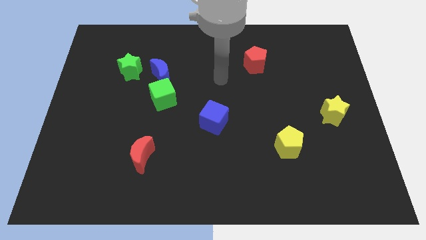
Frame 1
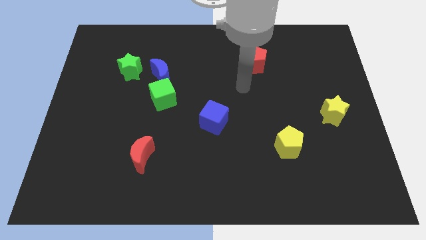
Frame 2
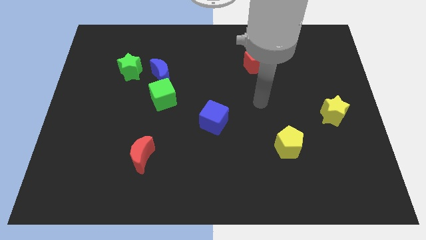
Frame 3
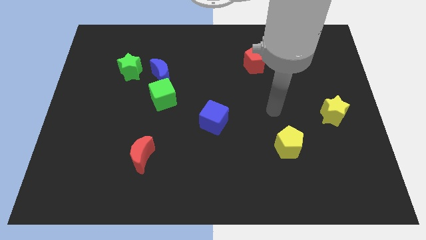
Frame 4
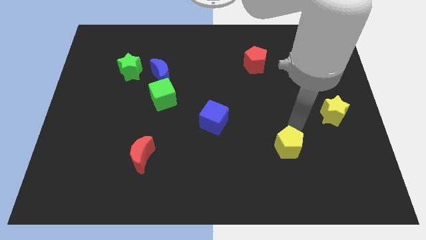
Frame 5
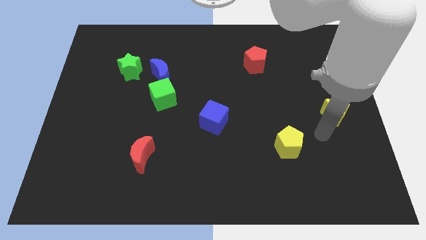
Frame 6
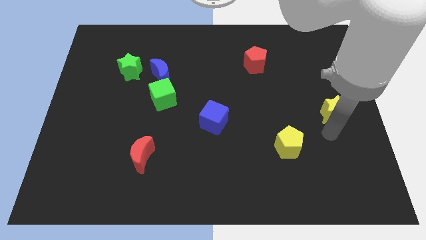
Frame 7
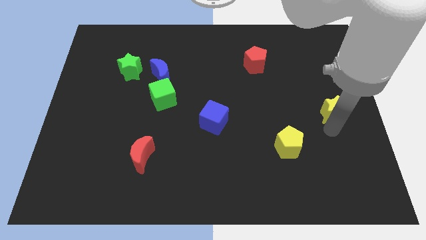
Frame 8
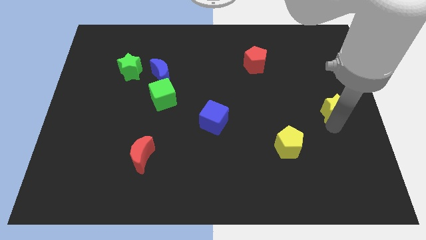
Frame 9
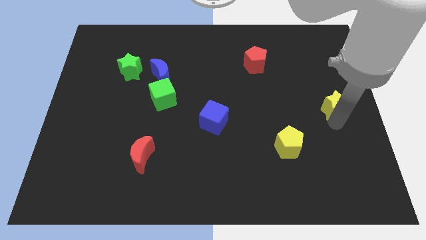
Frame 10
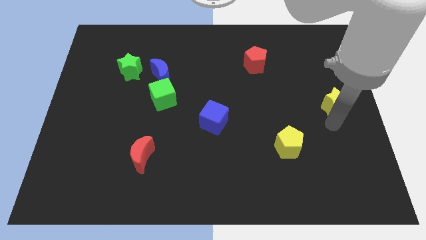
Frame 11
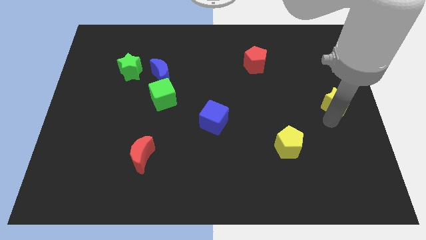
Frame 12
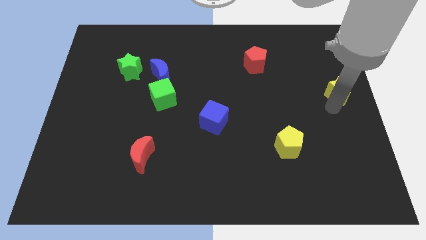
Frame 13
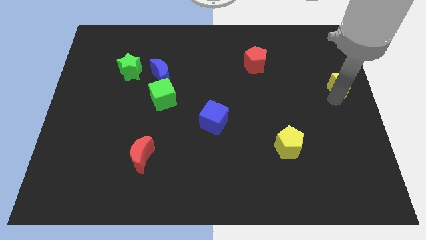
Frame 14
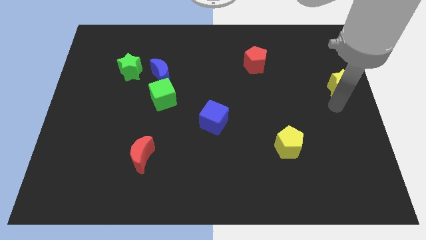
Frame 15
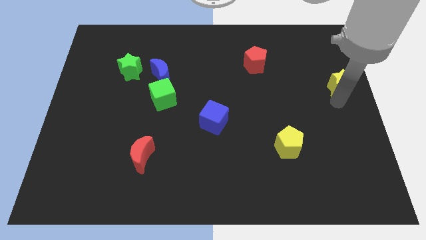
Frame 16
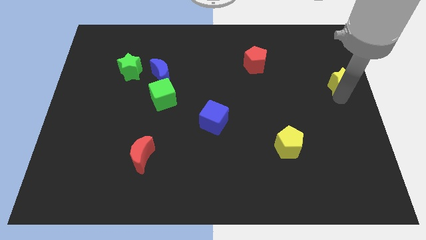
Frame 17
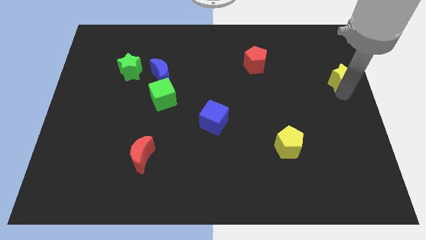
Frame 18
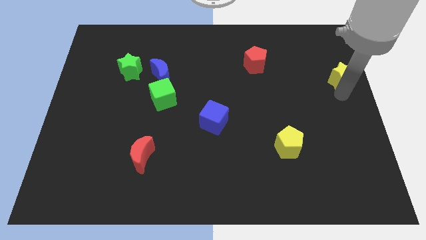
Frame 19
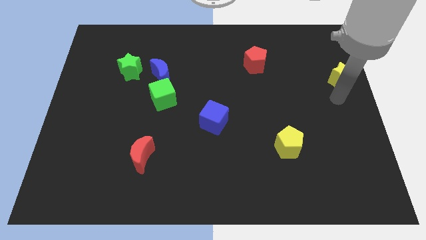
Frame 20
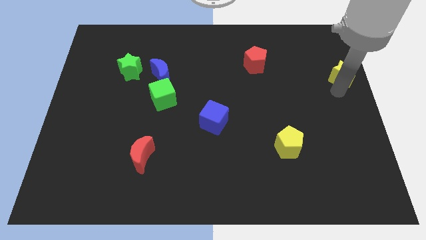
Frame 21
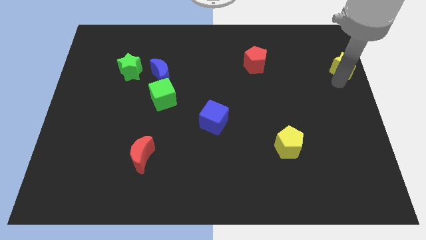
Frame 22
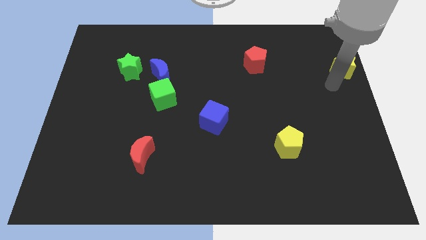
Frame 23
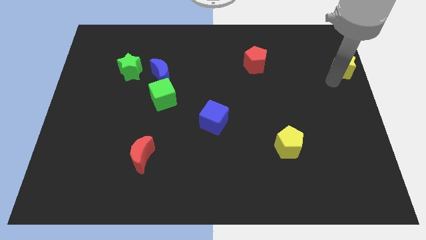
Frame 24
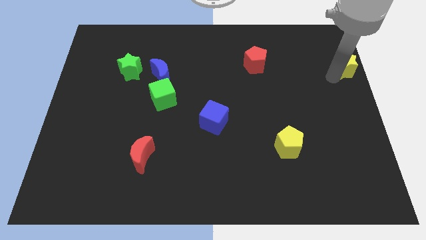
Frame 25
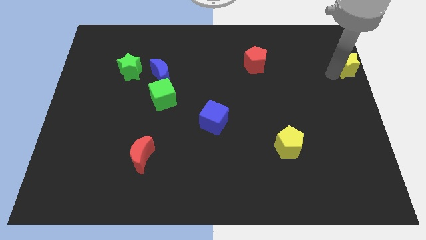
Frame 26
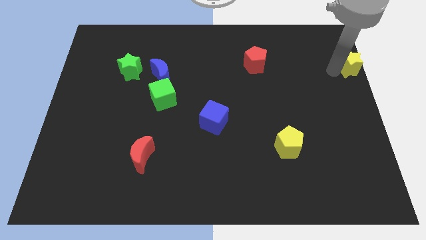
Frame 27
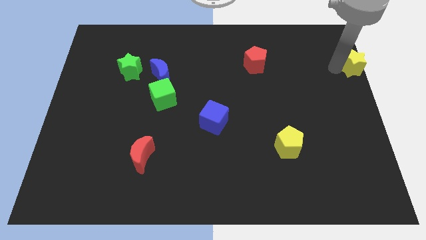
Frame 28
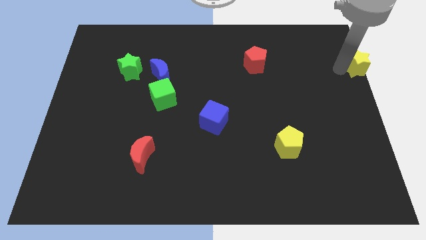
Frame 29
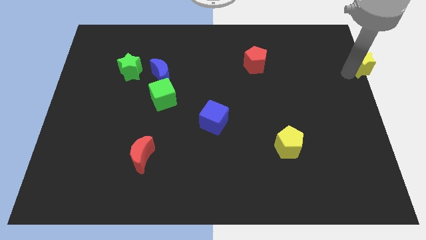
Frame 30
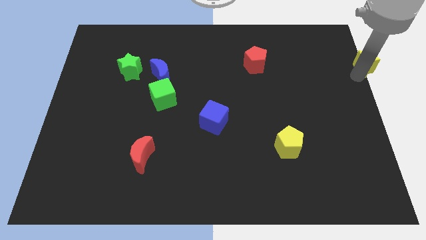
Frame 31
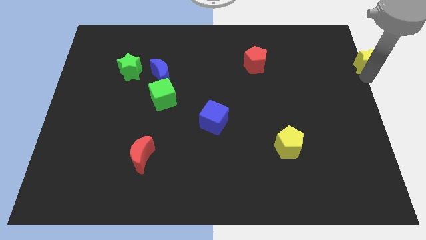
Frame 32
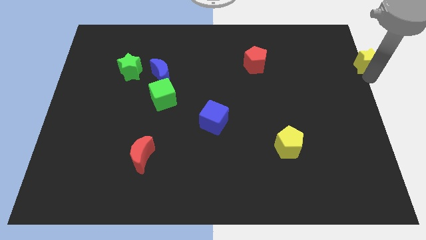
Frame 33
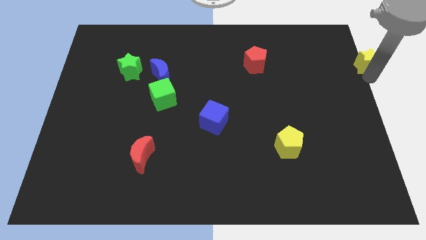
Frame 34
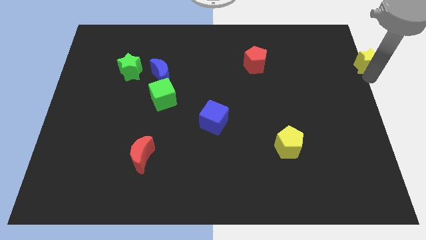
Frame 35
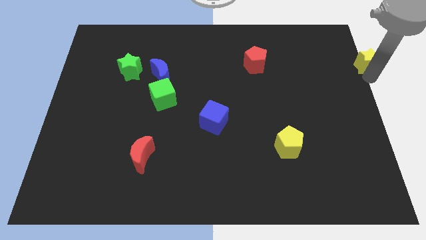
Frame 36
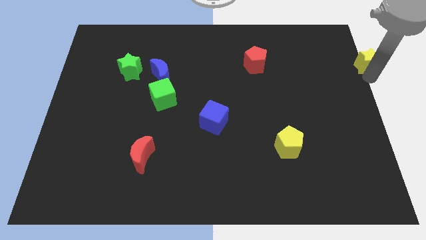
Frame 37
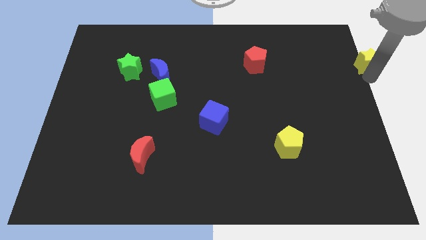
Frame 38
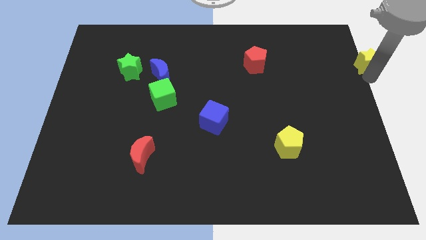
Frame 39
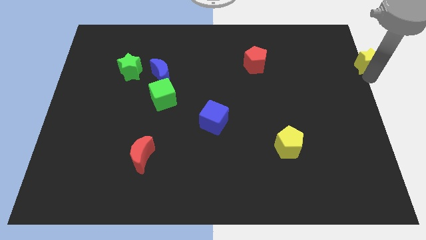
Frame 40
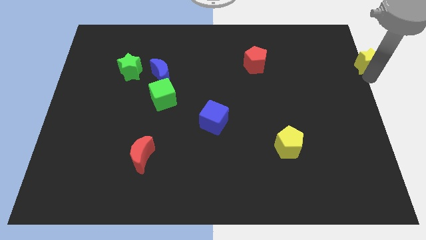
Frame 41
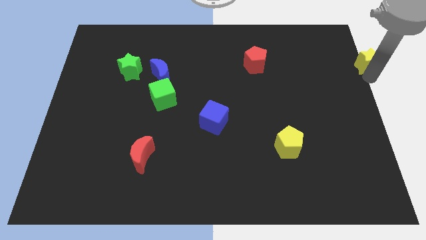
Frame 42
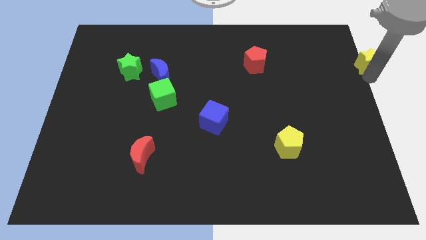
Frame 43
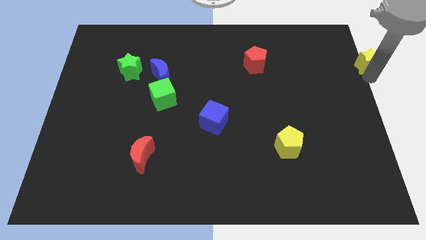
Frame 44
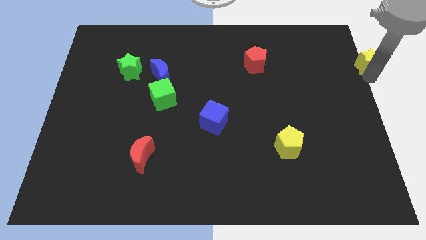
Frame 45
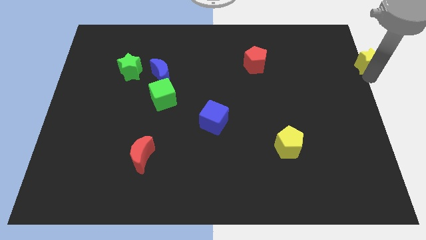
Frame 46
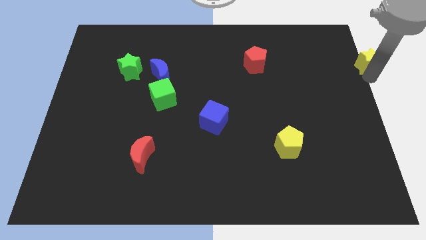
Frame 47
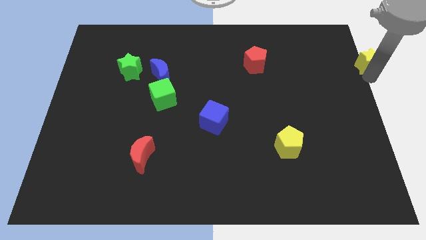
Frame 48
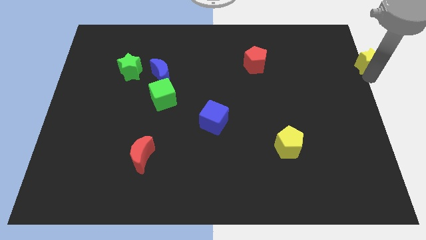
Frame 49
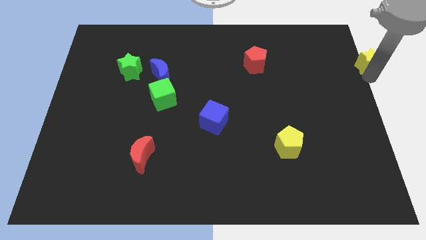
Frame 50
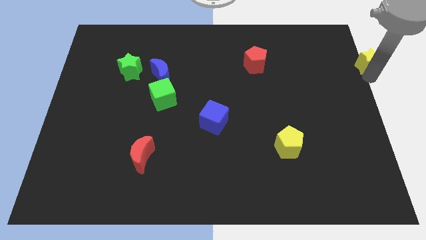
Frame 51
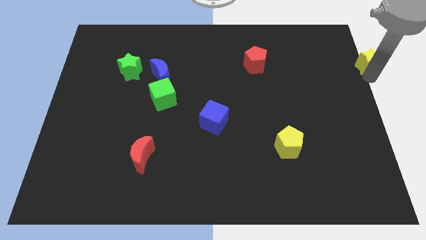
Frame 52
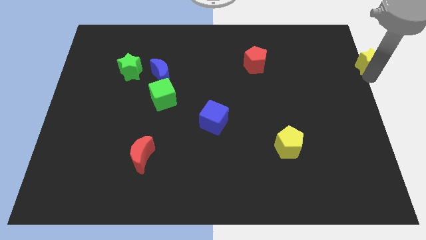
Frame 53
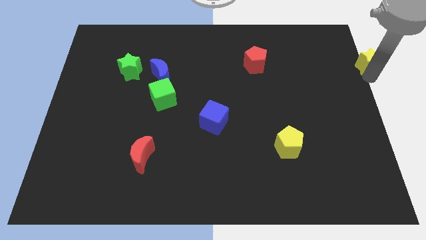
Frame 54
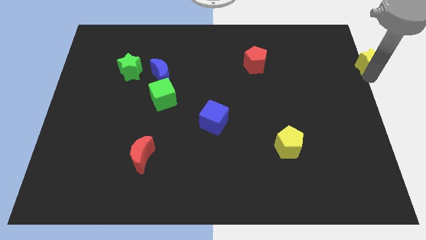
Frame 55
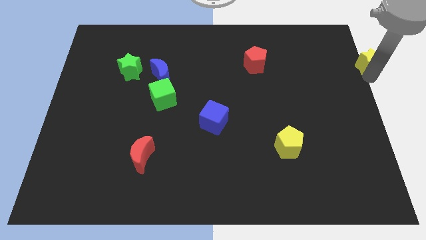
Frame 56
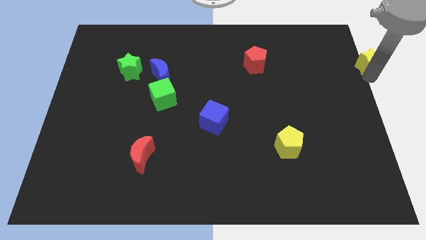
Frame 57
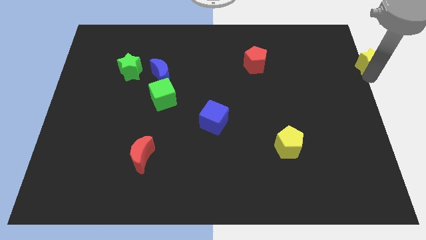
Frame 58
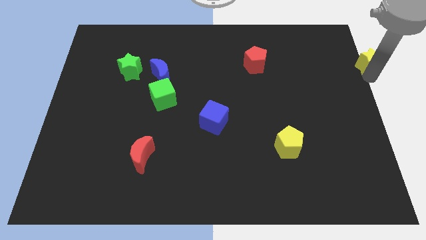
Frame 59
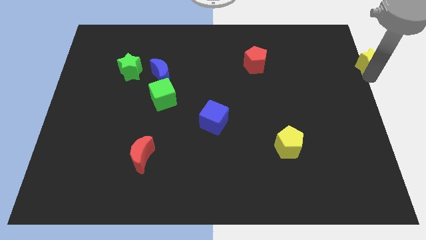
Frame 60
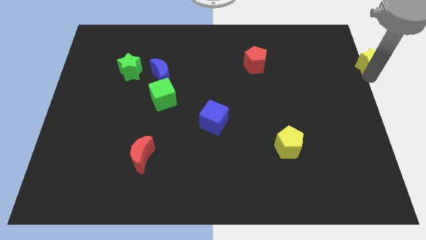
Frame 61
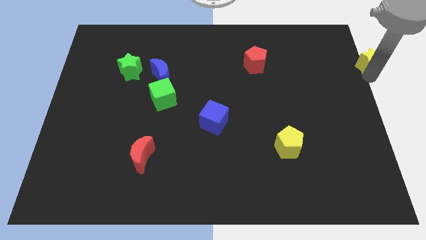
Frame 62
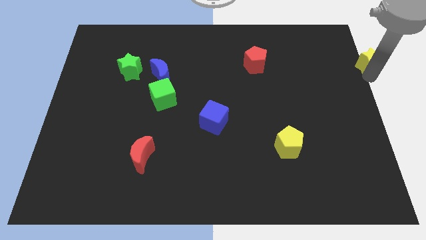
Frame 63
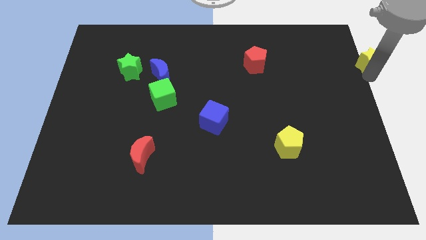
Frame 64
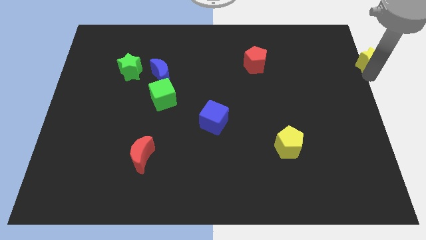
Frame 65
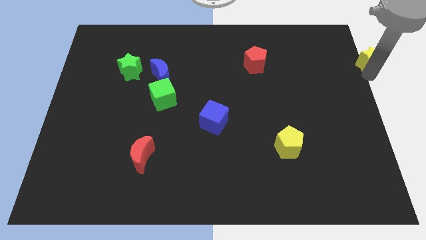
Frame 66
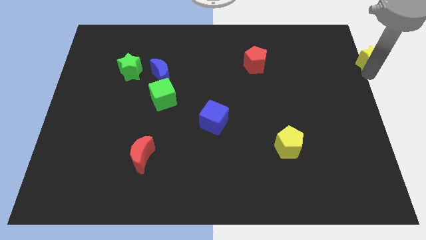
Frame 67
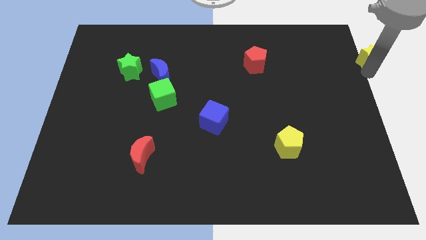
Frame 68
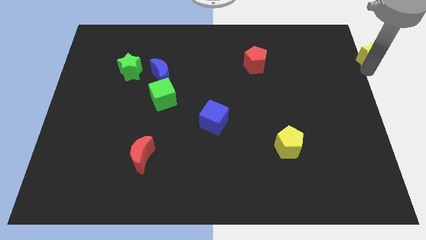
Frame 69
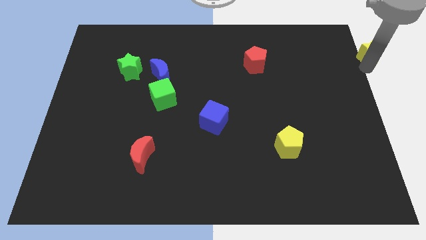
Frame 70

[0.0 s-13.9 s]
slide the yellow star to the top right corner
